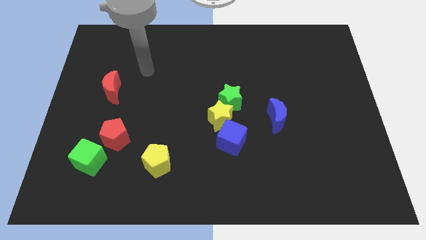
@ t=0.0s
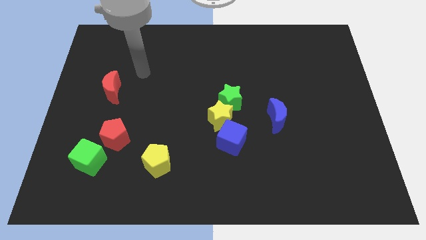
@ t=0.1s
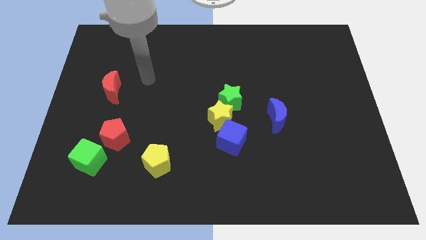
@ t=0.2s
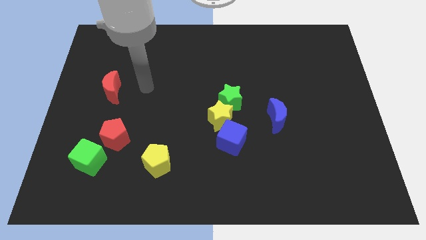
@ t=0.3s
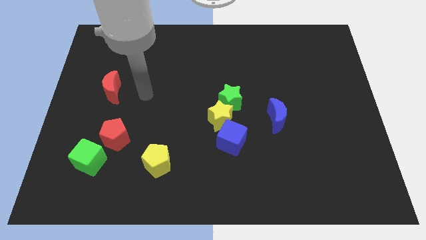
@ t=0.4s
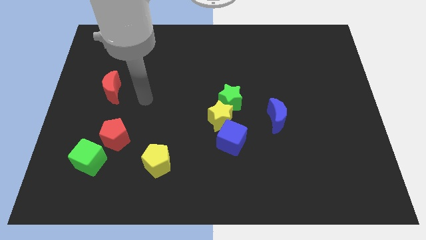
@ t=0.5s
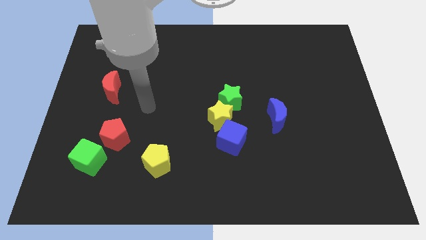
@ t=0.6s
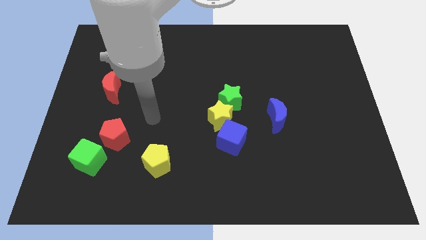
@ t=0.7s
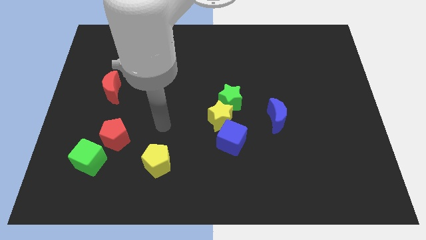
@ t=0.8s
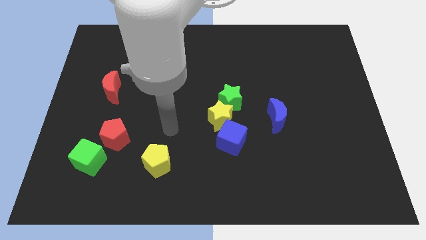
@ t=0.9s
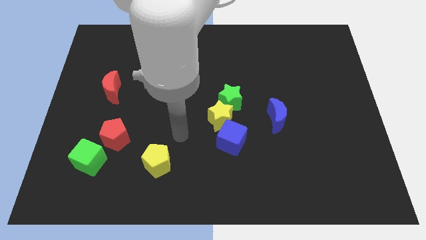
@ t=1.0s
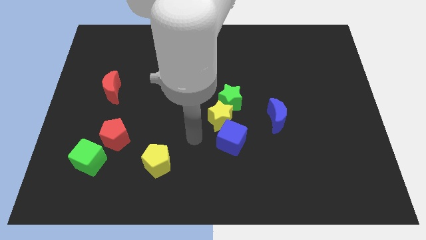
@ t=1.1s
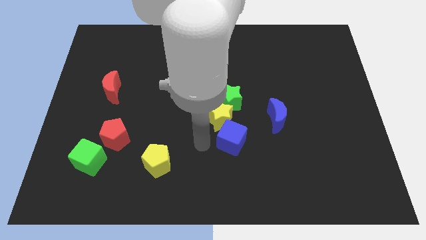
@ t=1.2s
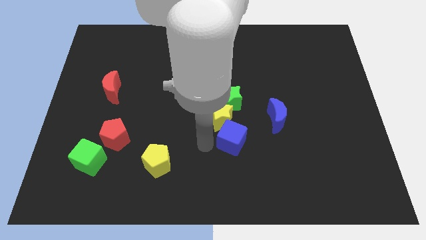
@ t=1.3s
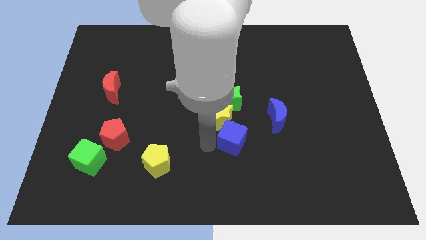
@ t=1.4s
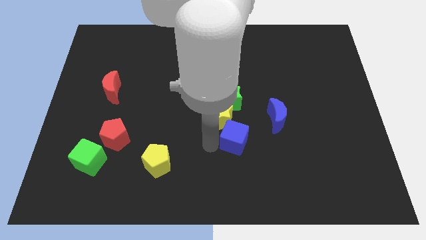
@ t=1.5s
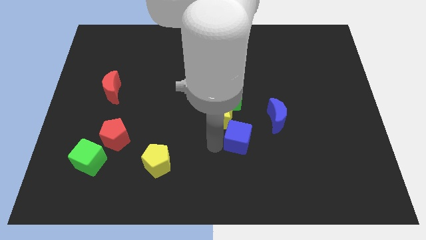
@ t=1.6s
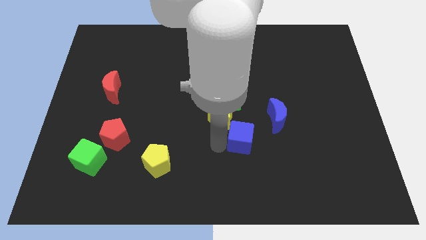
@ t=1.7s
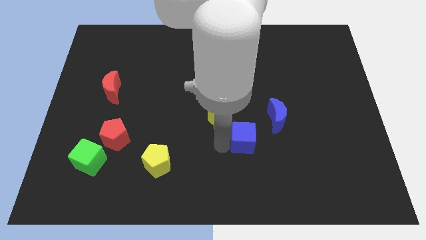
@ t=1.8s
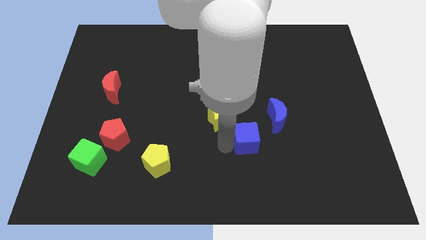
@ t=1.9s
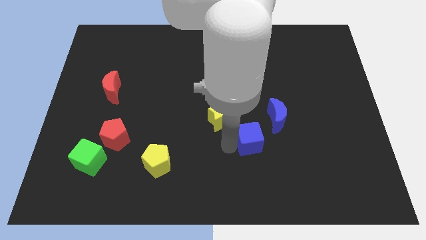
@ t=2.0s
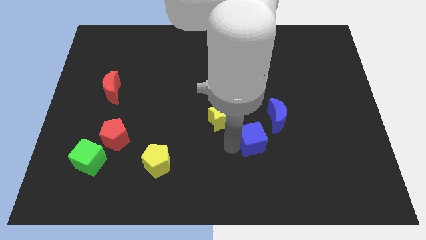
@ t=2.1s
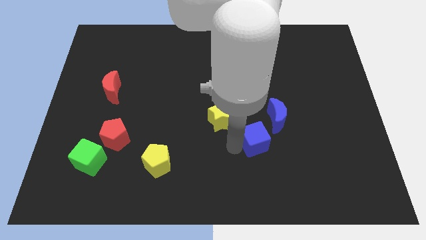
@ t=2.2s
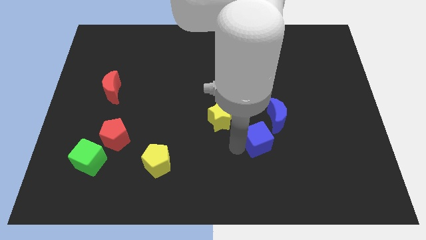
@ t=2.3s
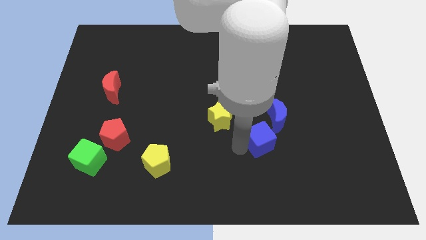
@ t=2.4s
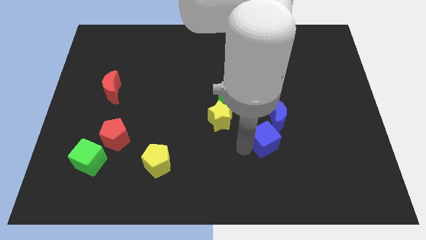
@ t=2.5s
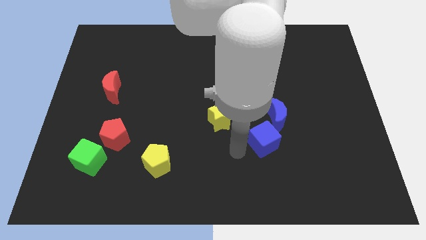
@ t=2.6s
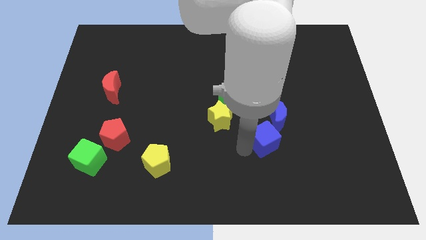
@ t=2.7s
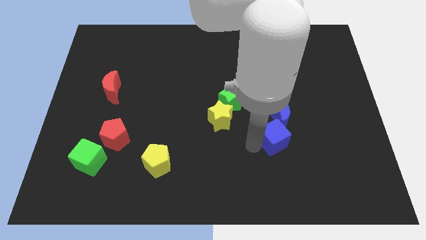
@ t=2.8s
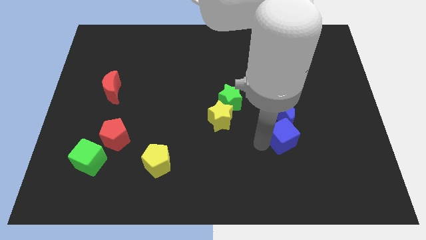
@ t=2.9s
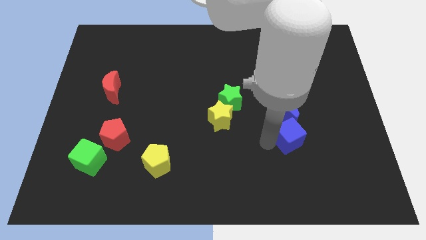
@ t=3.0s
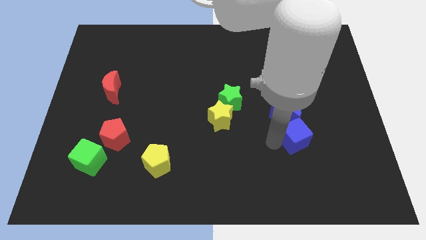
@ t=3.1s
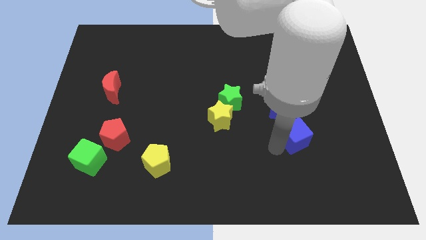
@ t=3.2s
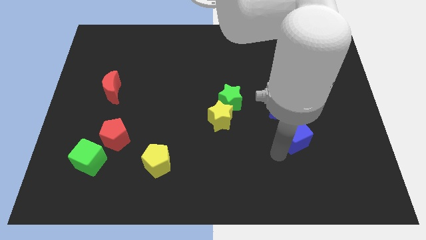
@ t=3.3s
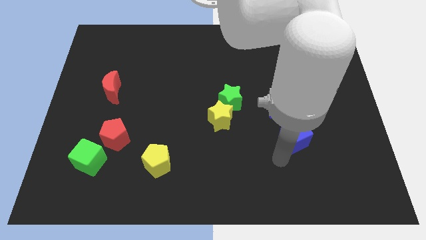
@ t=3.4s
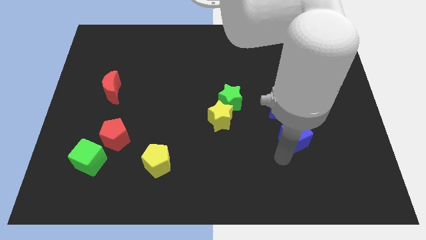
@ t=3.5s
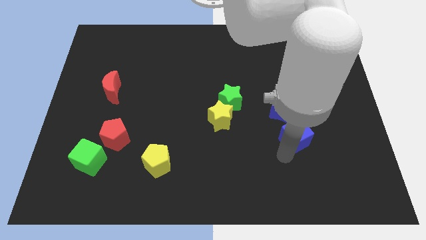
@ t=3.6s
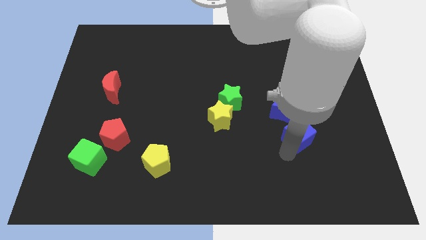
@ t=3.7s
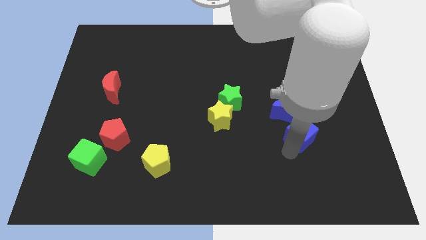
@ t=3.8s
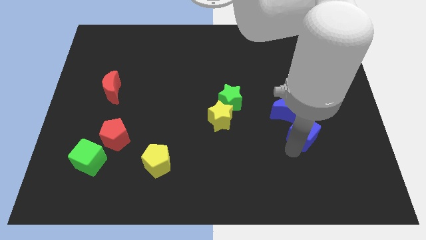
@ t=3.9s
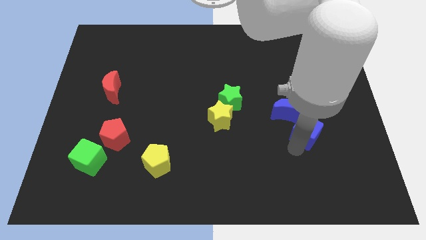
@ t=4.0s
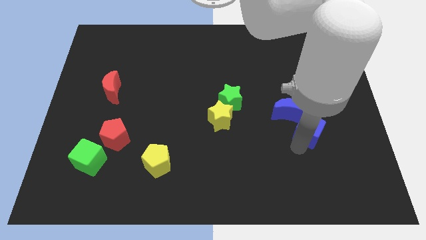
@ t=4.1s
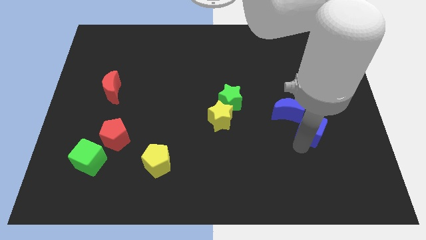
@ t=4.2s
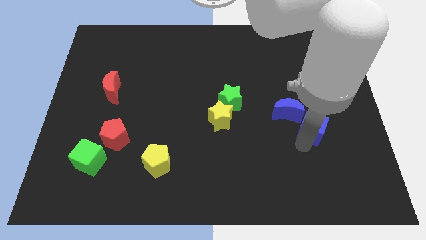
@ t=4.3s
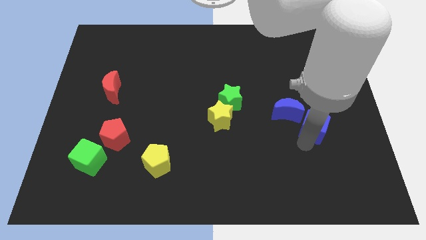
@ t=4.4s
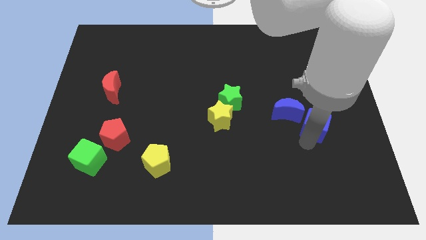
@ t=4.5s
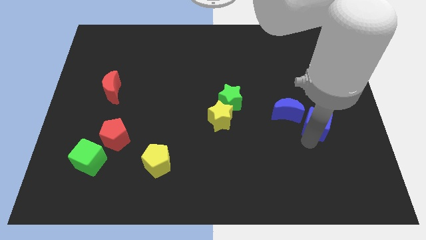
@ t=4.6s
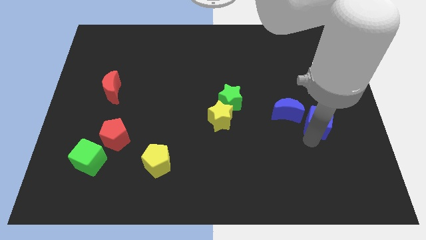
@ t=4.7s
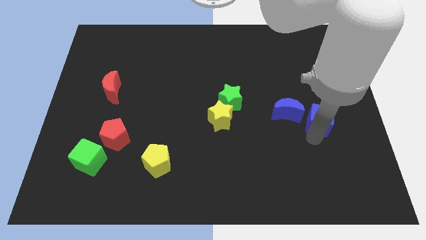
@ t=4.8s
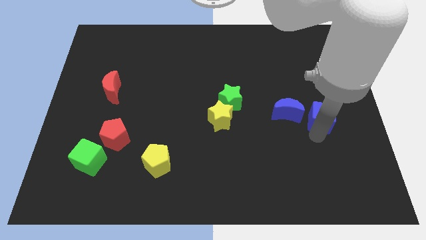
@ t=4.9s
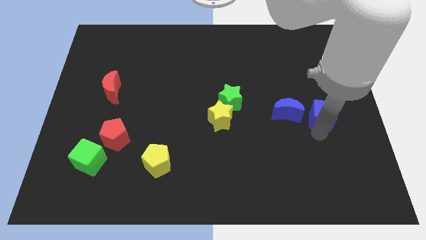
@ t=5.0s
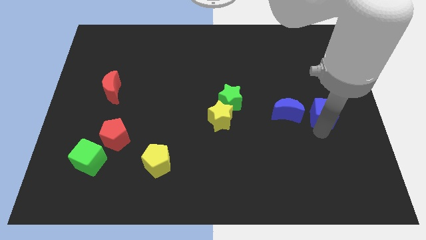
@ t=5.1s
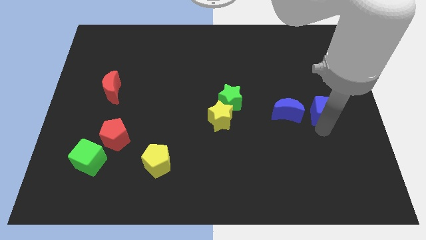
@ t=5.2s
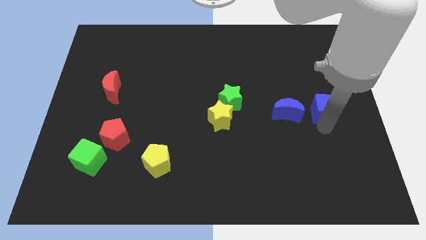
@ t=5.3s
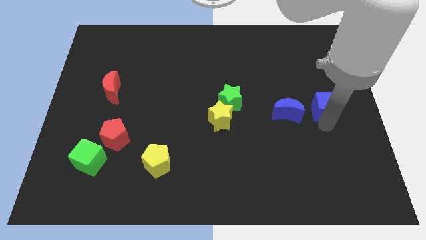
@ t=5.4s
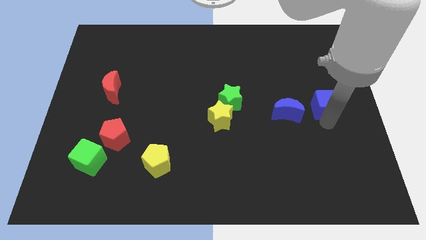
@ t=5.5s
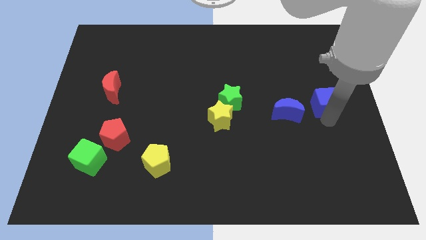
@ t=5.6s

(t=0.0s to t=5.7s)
put the blue cube to the top right of the blue moon

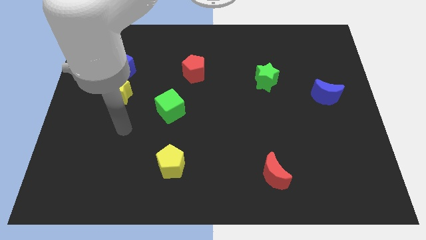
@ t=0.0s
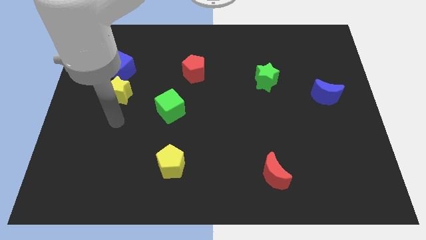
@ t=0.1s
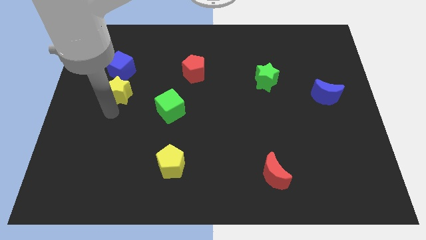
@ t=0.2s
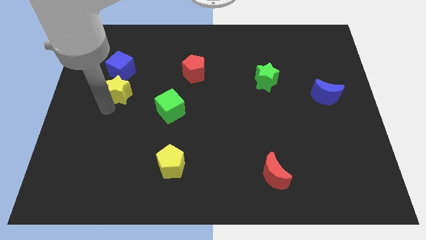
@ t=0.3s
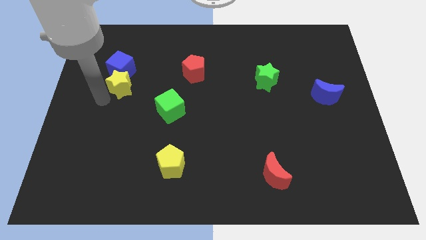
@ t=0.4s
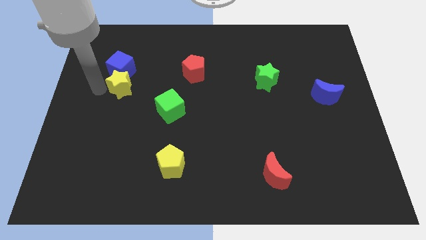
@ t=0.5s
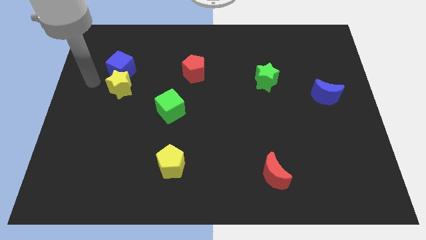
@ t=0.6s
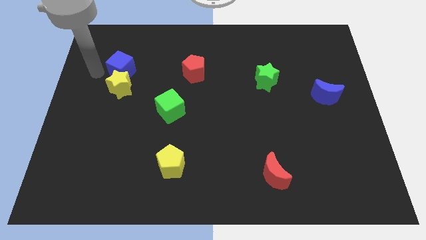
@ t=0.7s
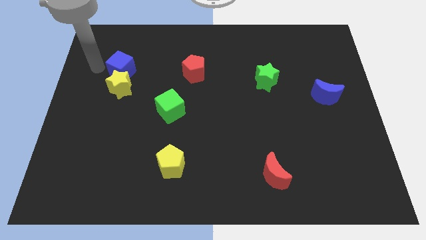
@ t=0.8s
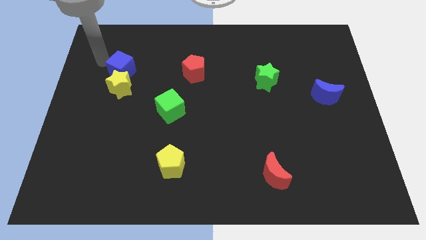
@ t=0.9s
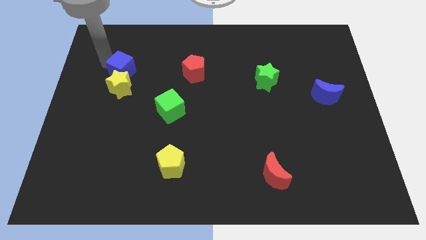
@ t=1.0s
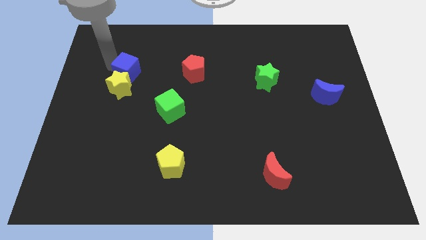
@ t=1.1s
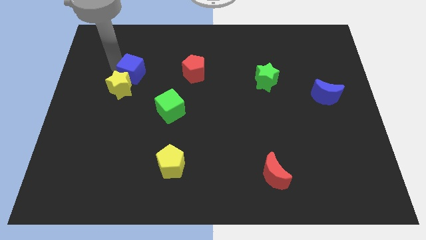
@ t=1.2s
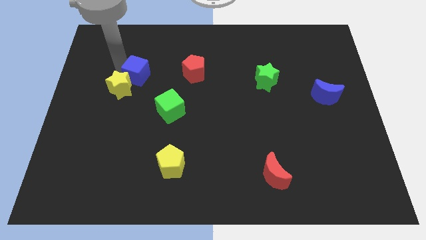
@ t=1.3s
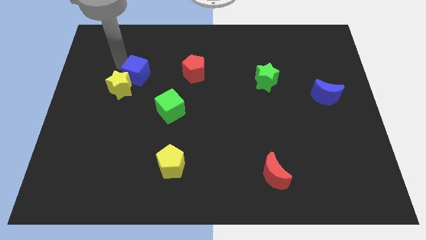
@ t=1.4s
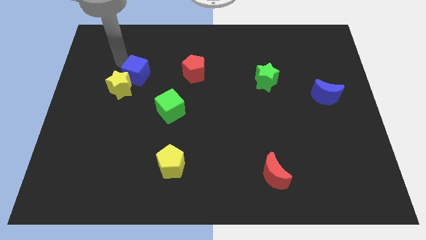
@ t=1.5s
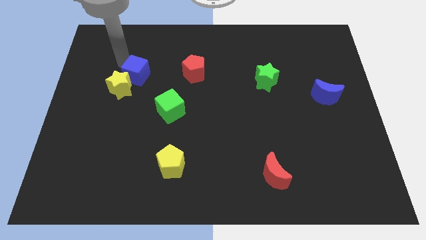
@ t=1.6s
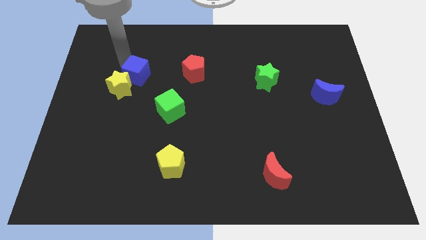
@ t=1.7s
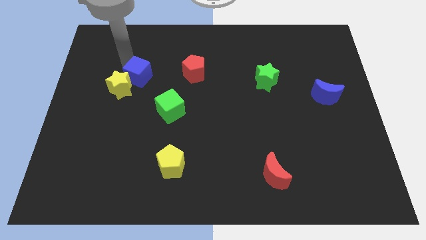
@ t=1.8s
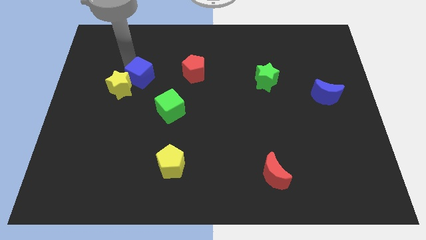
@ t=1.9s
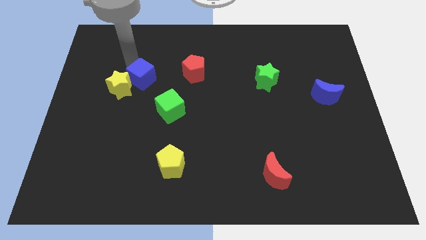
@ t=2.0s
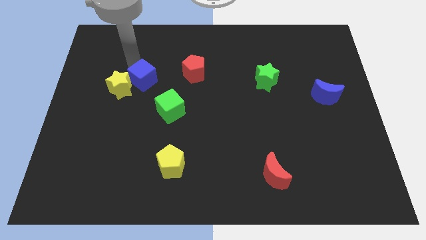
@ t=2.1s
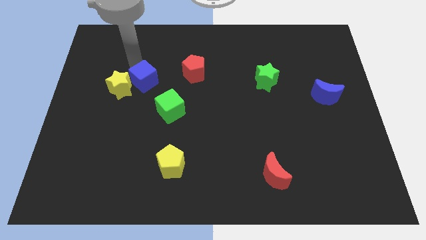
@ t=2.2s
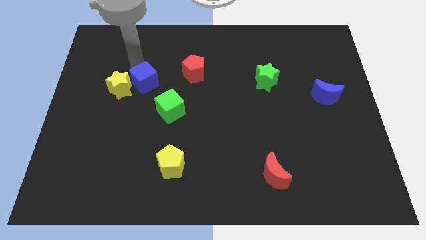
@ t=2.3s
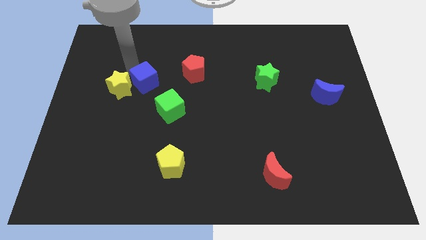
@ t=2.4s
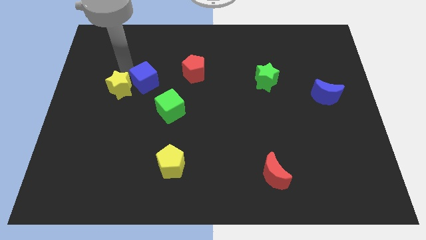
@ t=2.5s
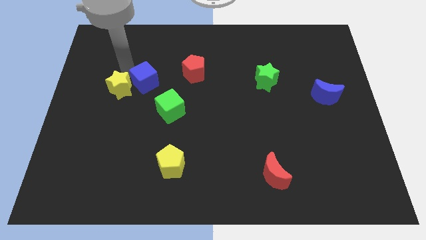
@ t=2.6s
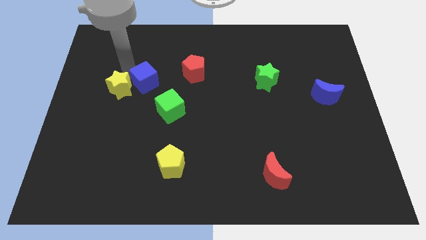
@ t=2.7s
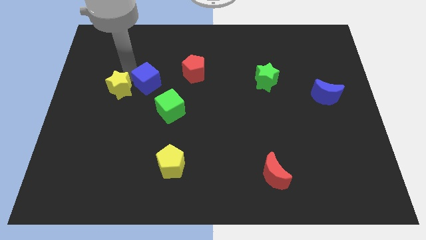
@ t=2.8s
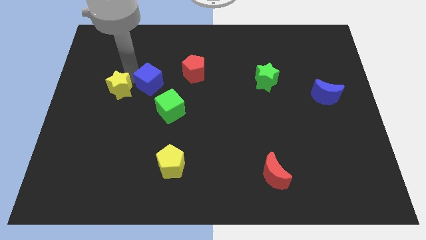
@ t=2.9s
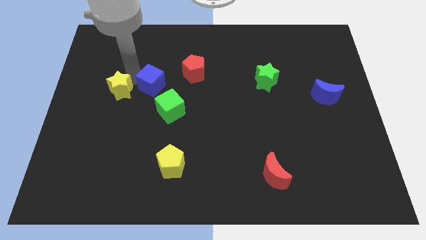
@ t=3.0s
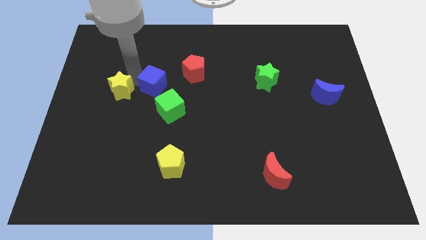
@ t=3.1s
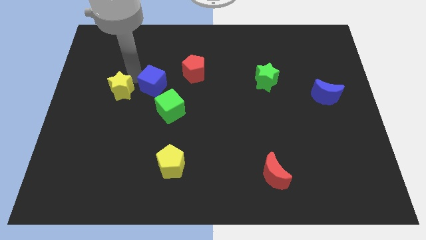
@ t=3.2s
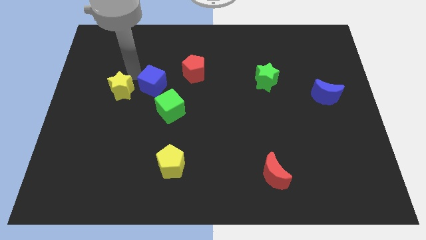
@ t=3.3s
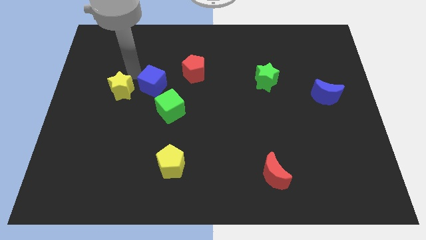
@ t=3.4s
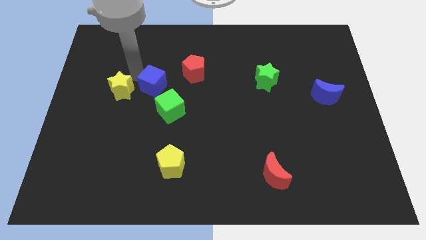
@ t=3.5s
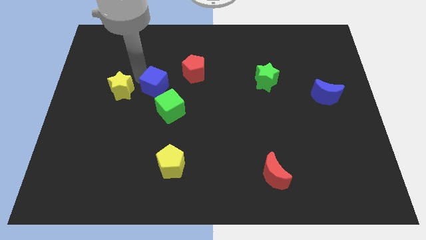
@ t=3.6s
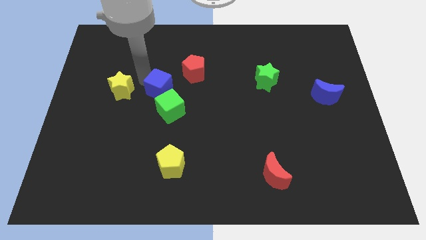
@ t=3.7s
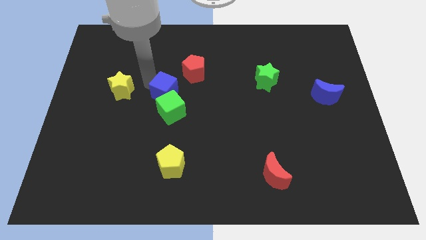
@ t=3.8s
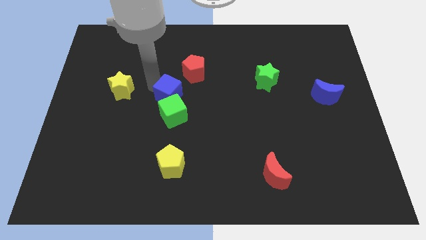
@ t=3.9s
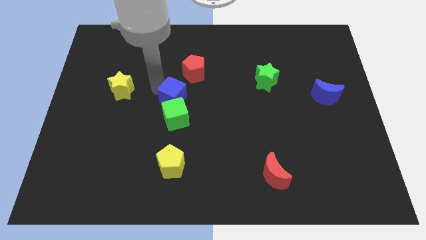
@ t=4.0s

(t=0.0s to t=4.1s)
move the blue cube to the bottom side of the red pentagon
